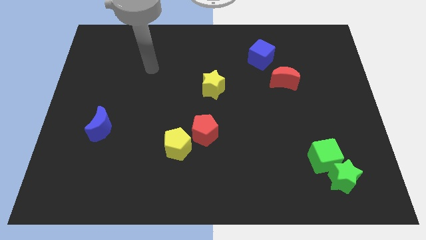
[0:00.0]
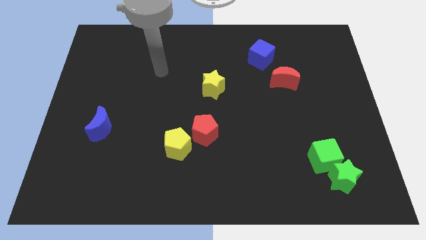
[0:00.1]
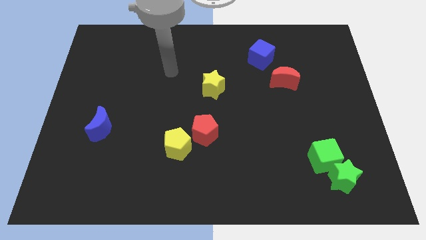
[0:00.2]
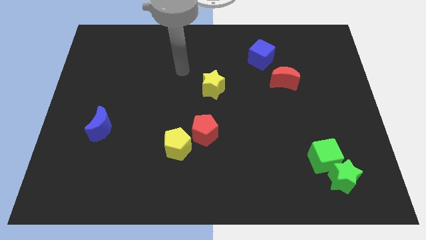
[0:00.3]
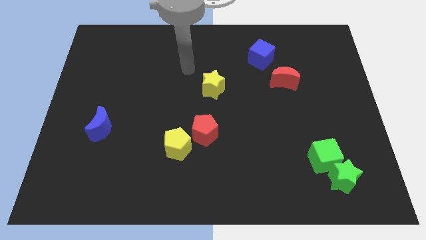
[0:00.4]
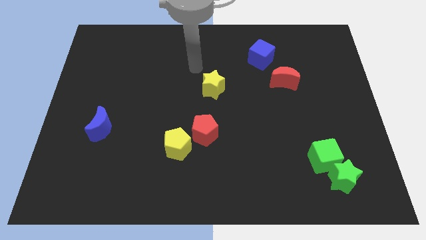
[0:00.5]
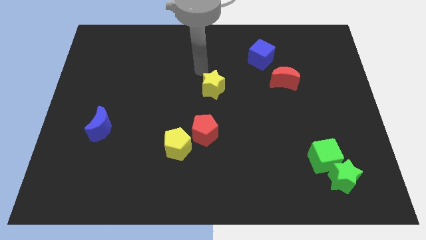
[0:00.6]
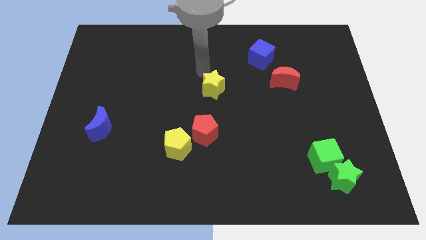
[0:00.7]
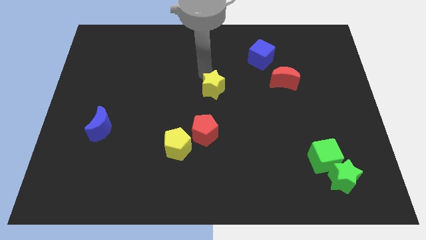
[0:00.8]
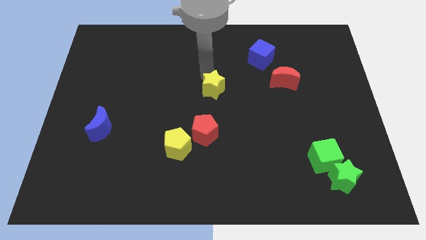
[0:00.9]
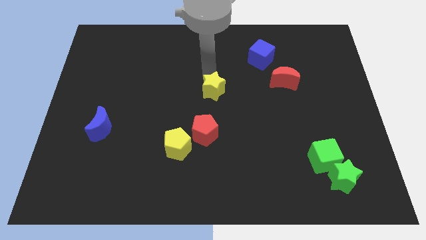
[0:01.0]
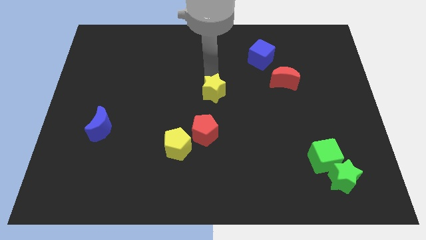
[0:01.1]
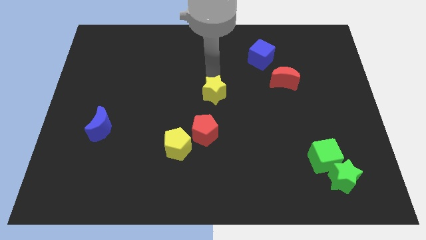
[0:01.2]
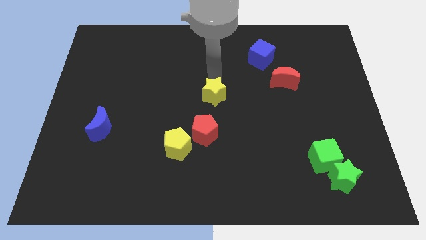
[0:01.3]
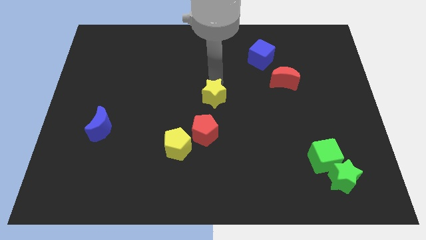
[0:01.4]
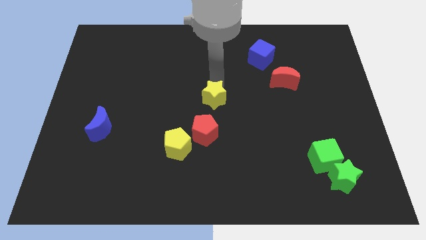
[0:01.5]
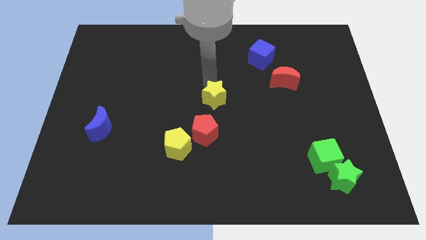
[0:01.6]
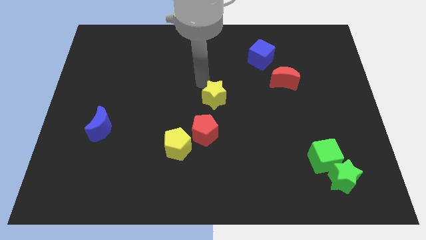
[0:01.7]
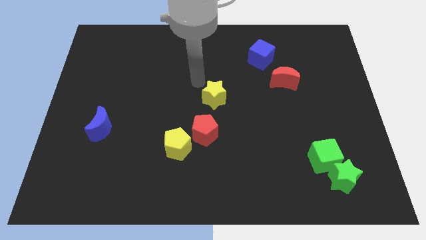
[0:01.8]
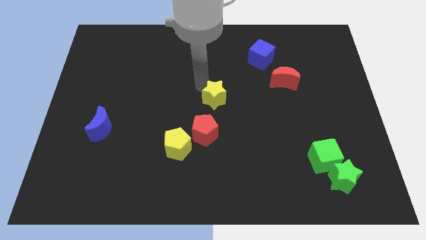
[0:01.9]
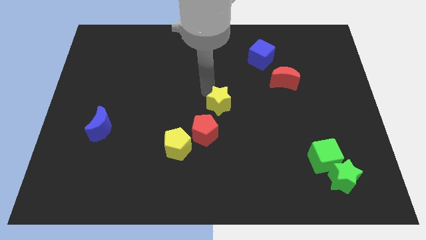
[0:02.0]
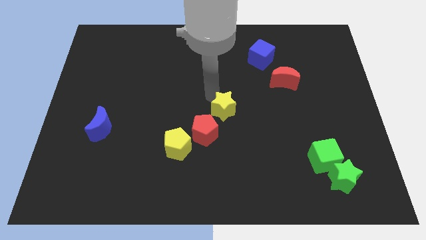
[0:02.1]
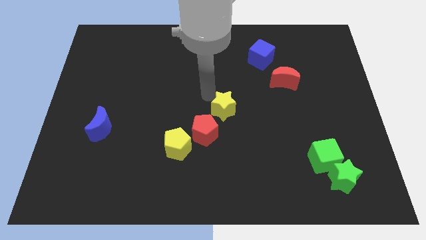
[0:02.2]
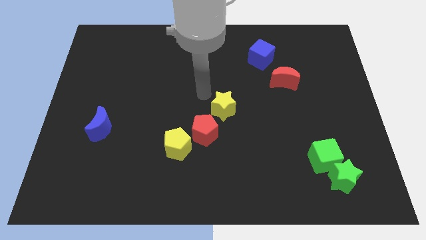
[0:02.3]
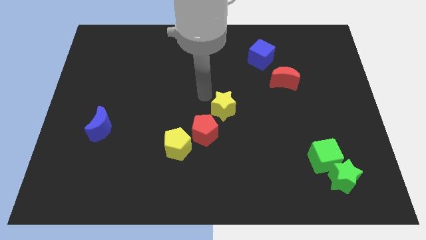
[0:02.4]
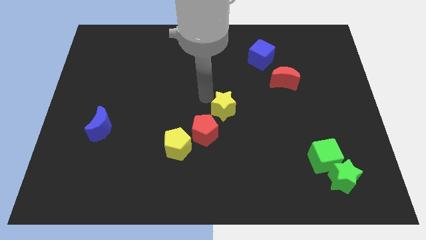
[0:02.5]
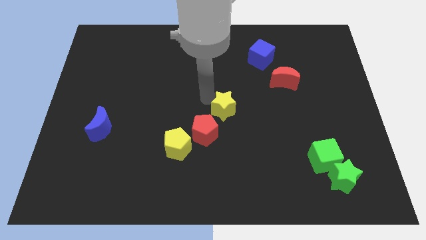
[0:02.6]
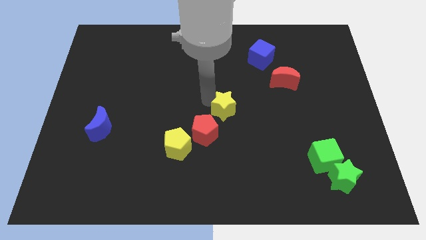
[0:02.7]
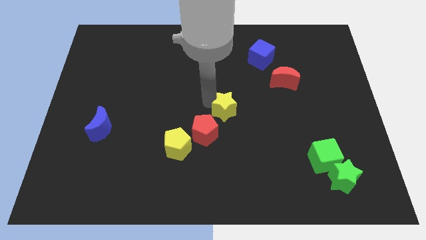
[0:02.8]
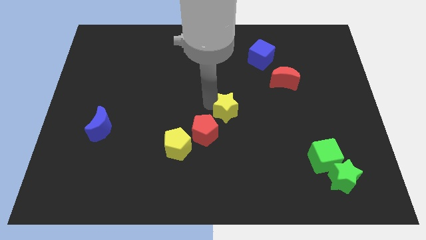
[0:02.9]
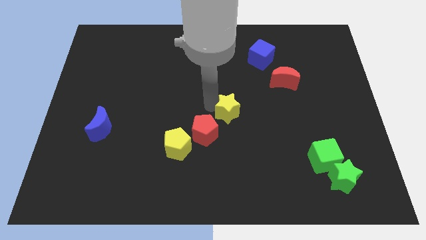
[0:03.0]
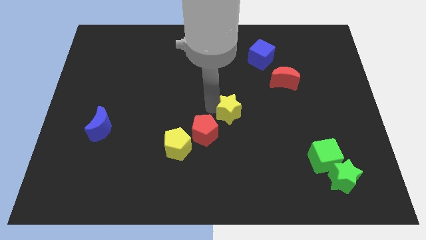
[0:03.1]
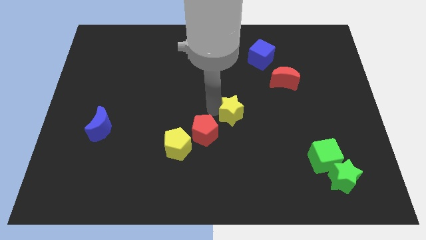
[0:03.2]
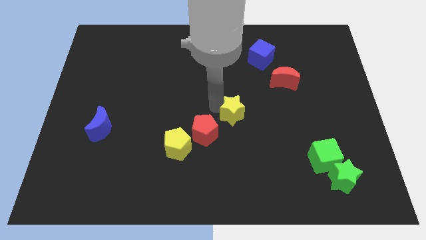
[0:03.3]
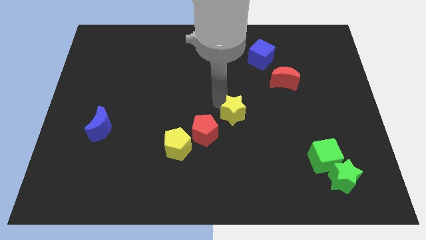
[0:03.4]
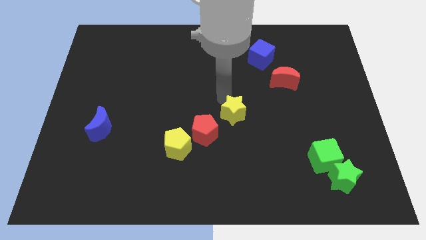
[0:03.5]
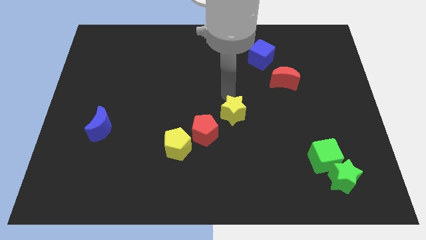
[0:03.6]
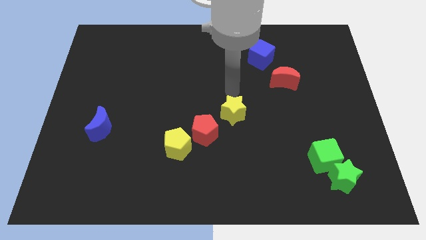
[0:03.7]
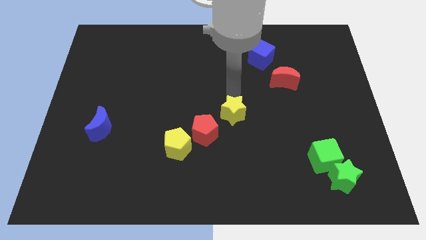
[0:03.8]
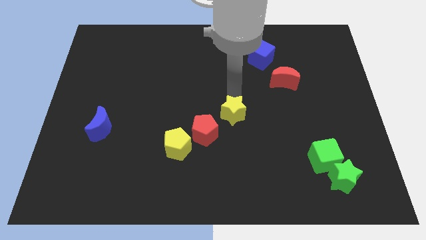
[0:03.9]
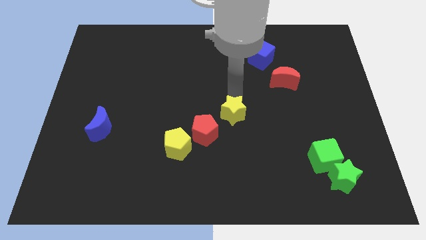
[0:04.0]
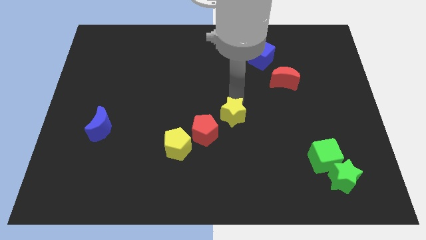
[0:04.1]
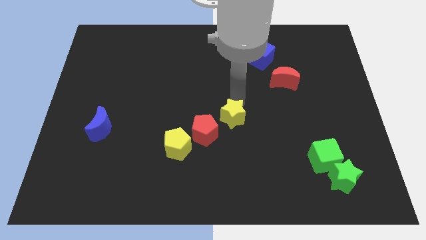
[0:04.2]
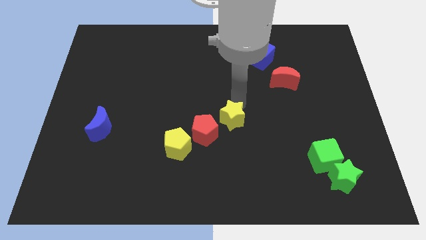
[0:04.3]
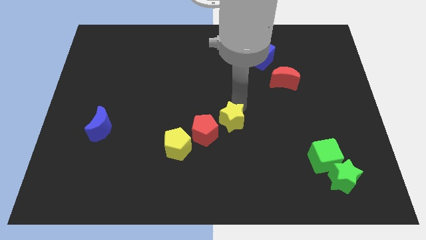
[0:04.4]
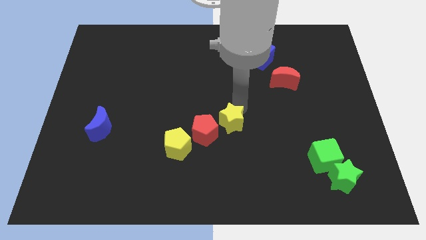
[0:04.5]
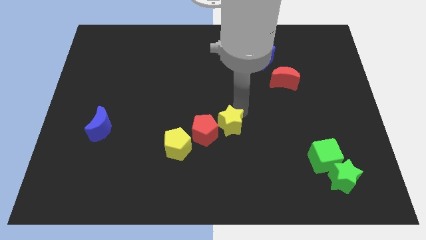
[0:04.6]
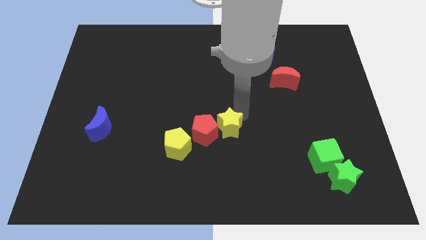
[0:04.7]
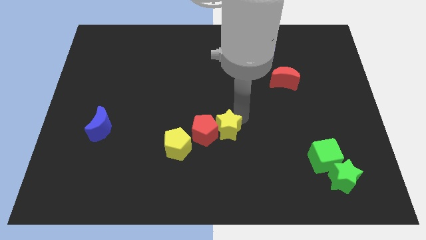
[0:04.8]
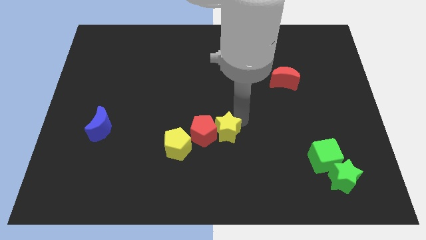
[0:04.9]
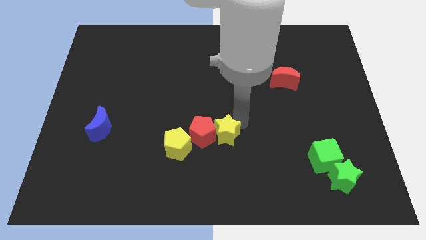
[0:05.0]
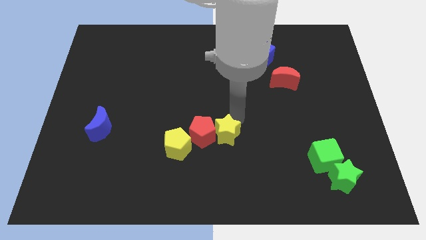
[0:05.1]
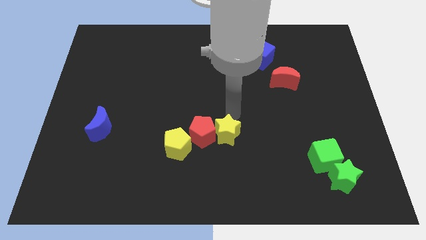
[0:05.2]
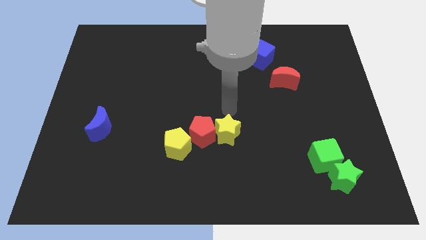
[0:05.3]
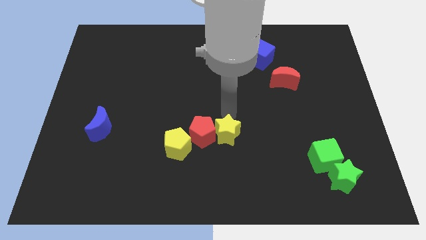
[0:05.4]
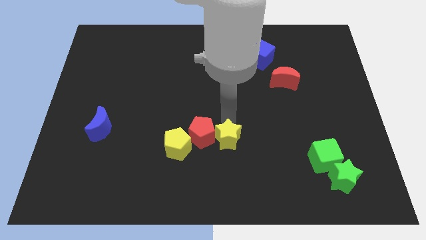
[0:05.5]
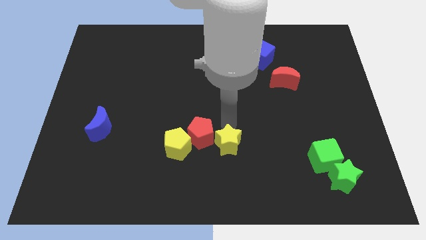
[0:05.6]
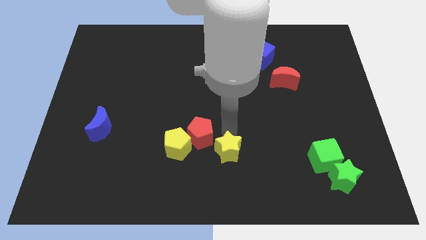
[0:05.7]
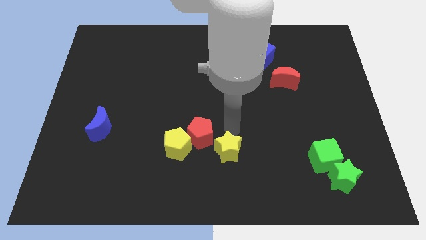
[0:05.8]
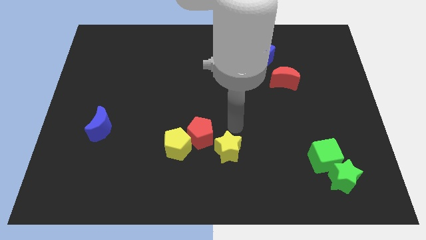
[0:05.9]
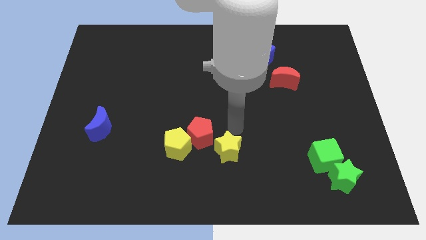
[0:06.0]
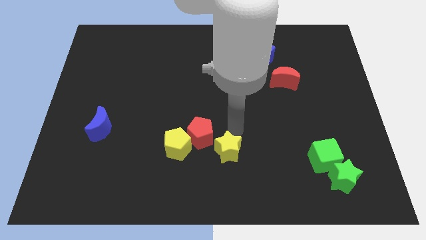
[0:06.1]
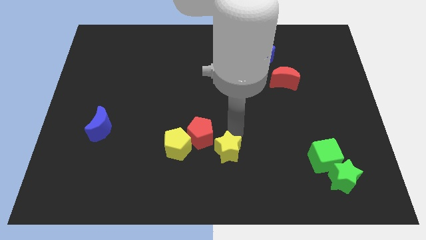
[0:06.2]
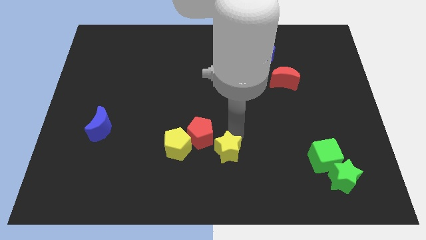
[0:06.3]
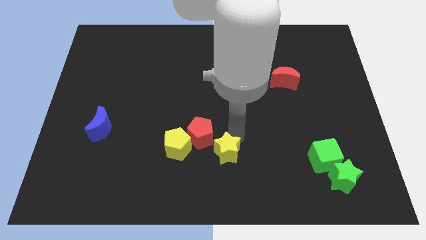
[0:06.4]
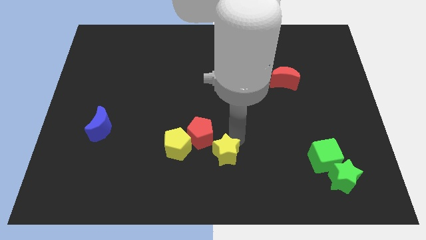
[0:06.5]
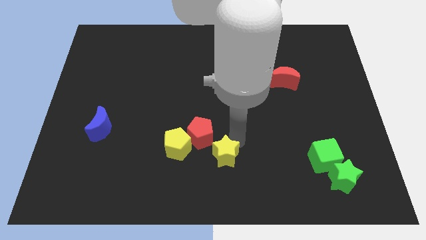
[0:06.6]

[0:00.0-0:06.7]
move the yellow star to the bottom side
